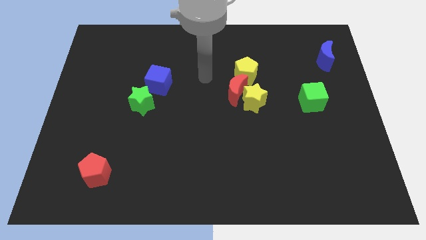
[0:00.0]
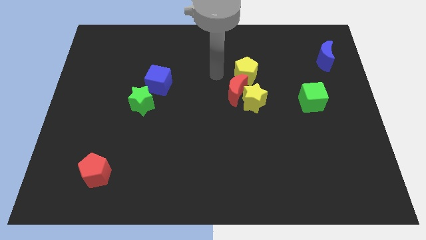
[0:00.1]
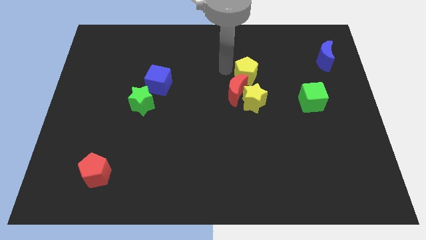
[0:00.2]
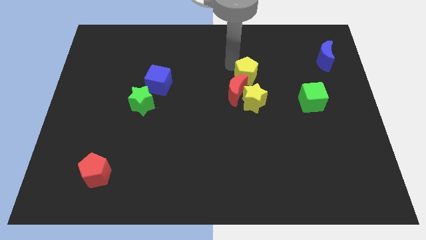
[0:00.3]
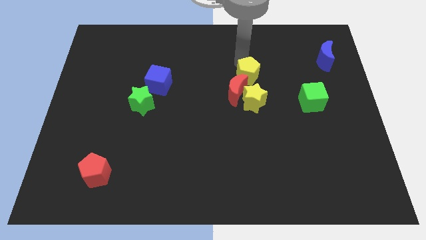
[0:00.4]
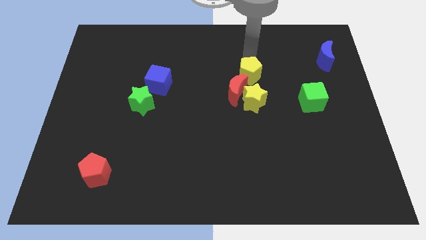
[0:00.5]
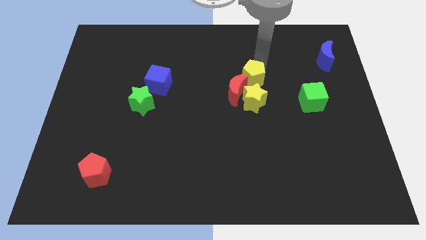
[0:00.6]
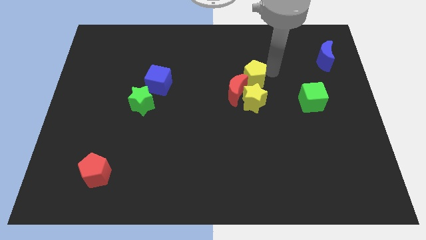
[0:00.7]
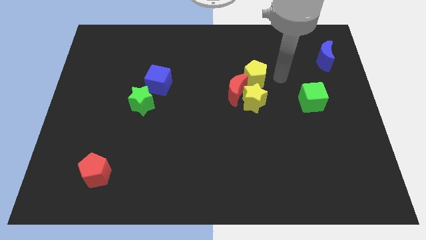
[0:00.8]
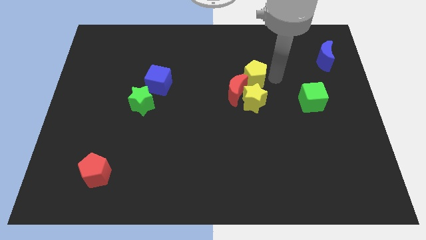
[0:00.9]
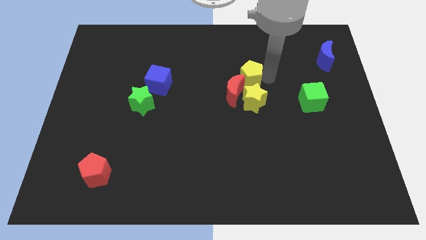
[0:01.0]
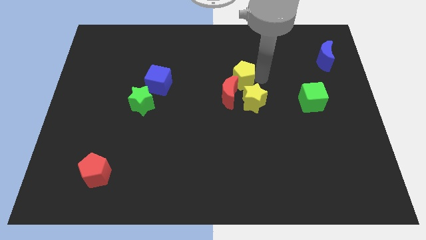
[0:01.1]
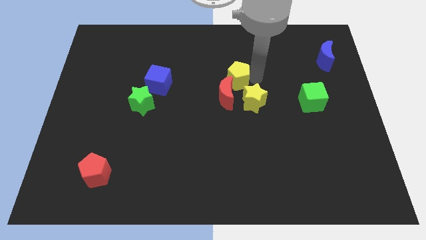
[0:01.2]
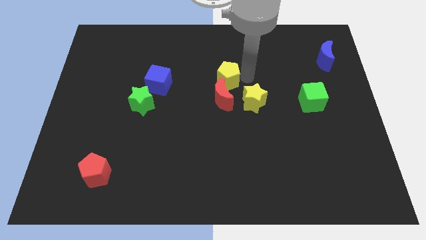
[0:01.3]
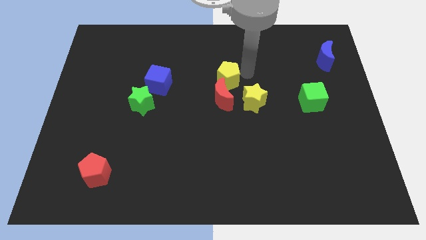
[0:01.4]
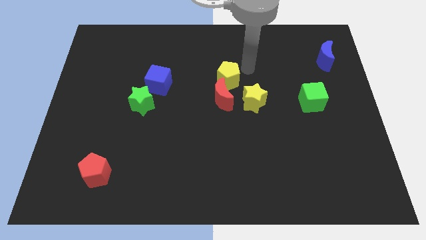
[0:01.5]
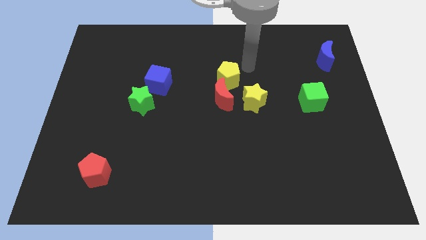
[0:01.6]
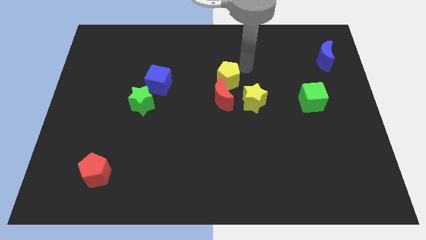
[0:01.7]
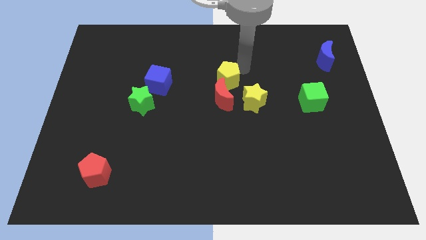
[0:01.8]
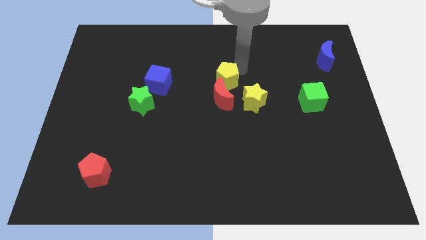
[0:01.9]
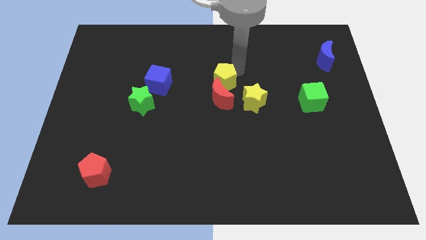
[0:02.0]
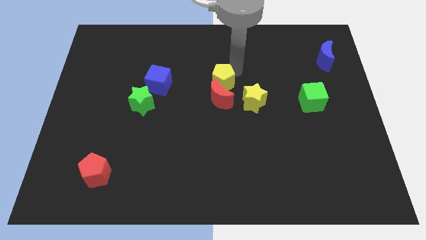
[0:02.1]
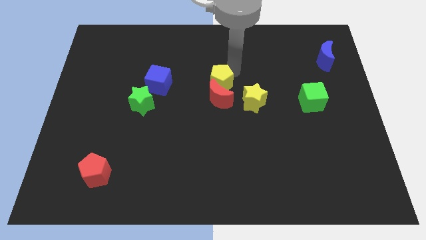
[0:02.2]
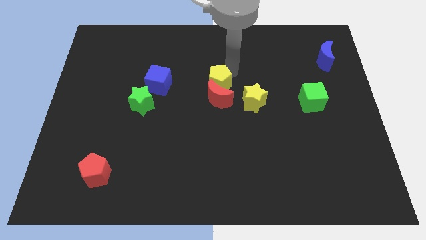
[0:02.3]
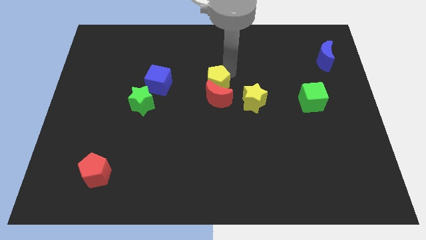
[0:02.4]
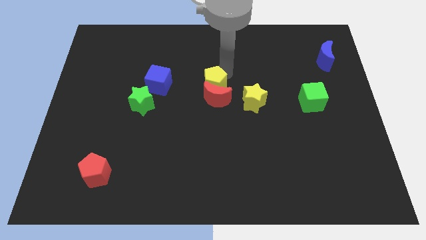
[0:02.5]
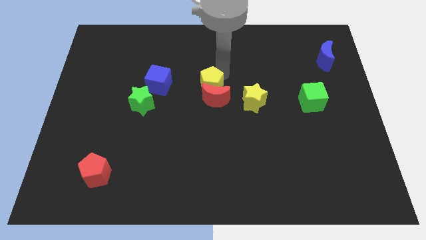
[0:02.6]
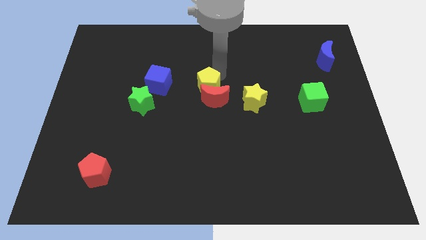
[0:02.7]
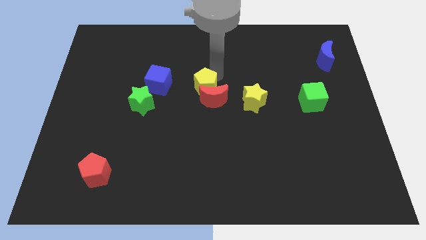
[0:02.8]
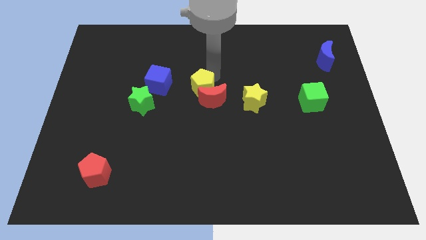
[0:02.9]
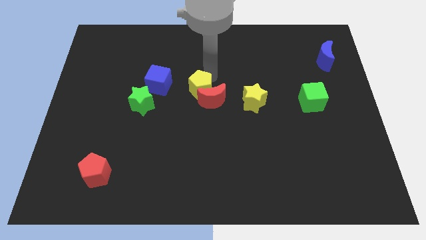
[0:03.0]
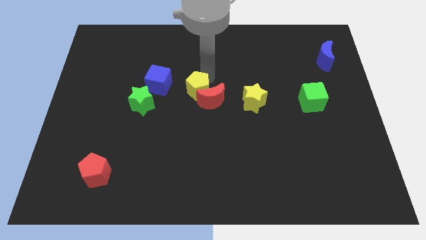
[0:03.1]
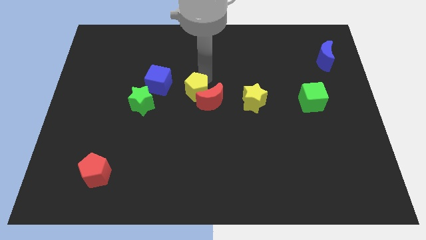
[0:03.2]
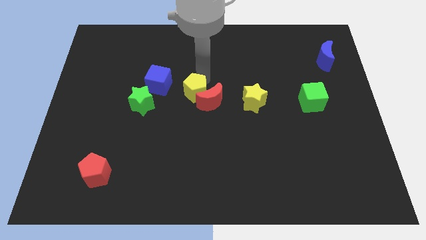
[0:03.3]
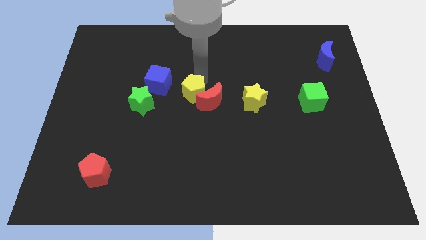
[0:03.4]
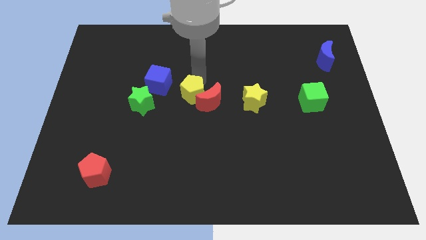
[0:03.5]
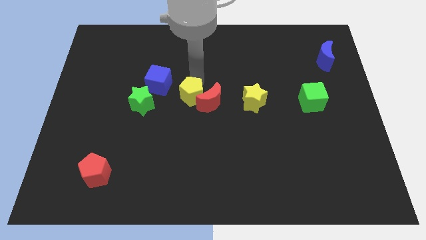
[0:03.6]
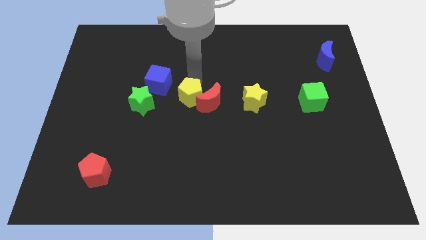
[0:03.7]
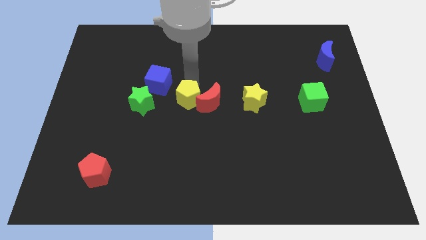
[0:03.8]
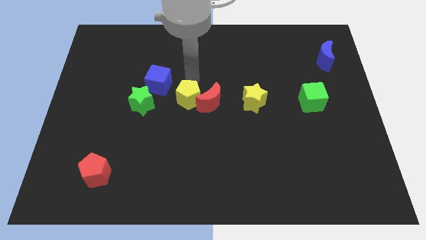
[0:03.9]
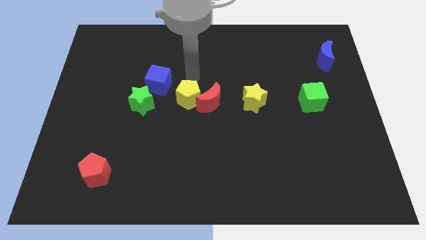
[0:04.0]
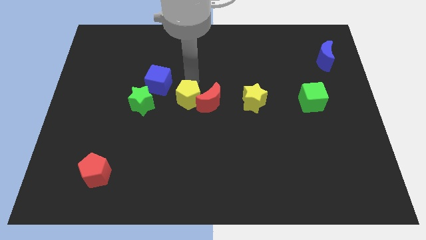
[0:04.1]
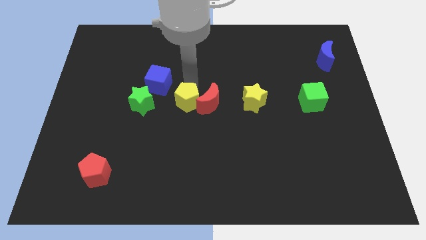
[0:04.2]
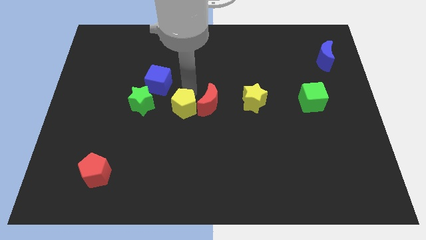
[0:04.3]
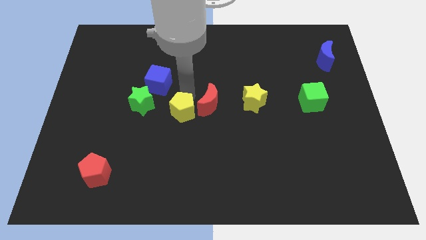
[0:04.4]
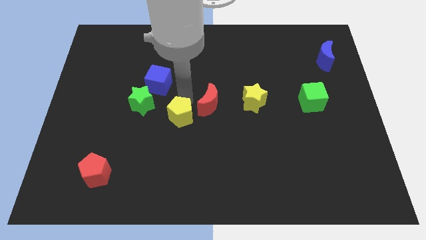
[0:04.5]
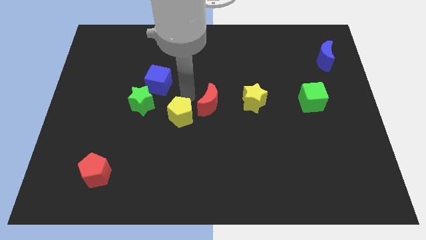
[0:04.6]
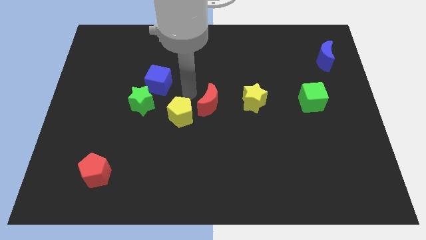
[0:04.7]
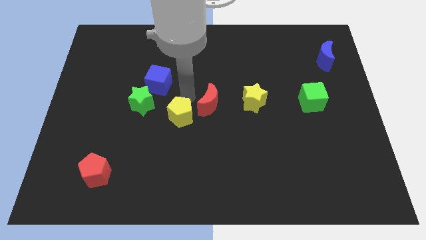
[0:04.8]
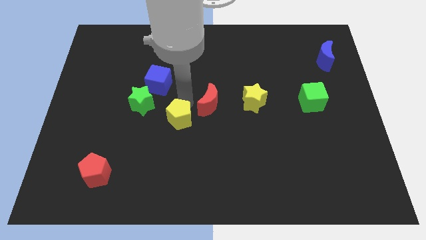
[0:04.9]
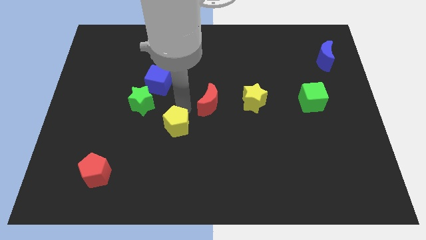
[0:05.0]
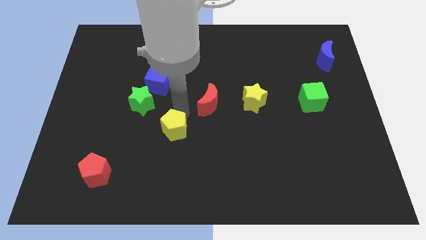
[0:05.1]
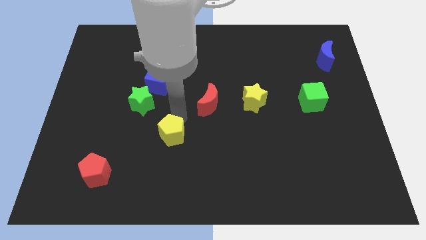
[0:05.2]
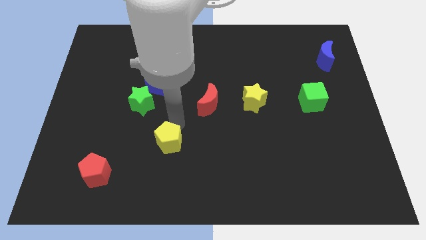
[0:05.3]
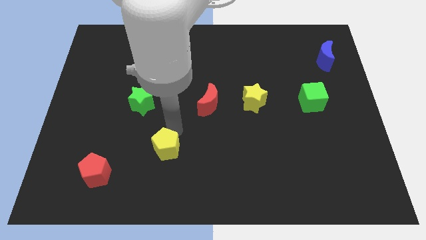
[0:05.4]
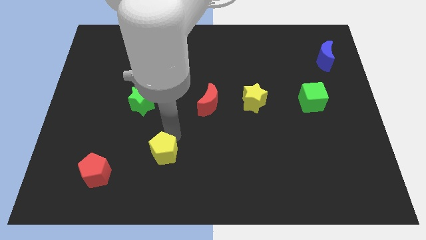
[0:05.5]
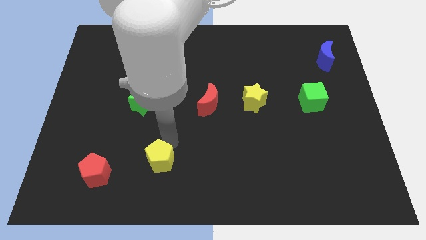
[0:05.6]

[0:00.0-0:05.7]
push the yellow pentagon right of the red pentagon
